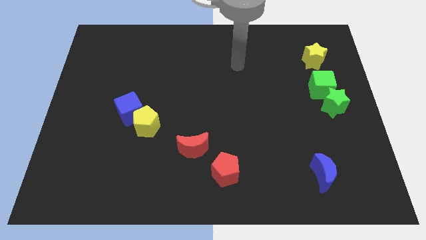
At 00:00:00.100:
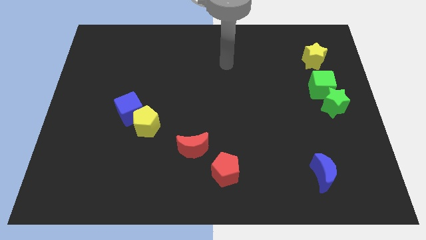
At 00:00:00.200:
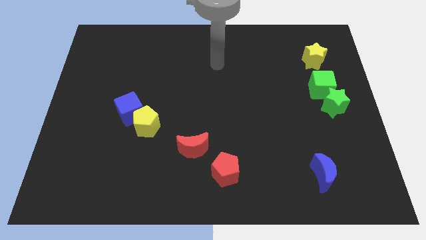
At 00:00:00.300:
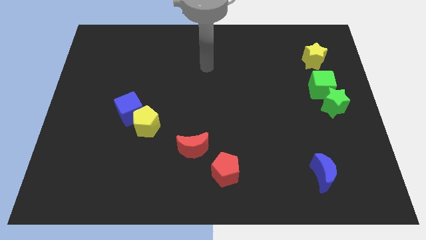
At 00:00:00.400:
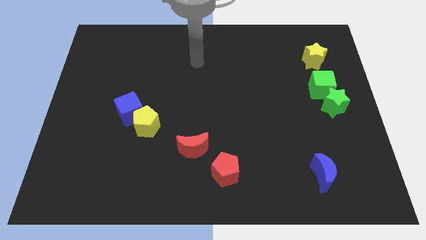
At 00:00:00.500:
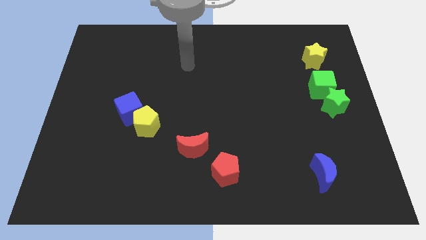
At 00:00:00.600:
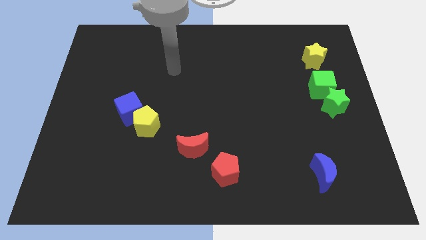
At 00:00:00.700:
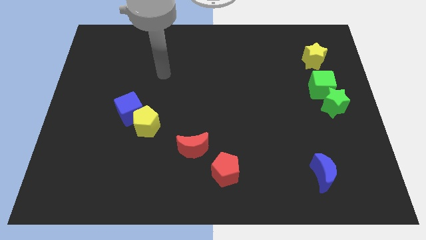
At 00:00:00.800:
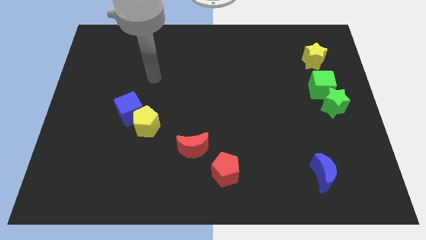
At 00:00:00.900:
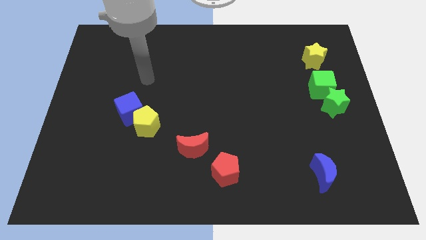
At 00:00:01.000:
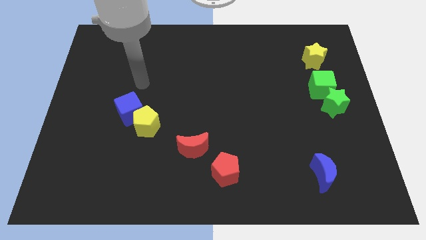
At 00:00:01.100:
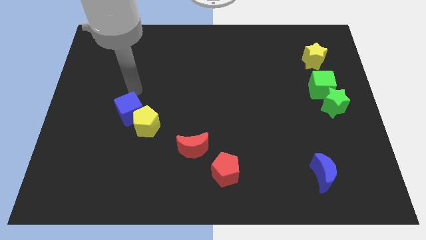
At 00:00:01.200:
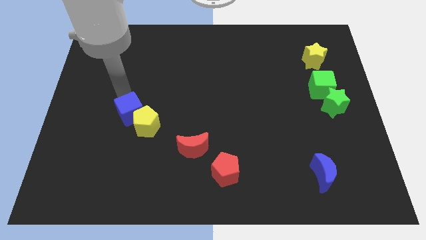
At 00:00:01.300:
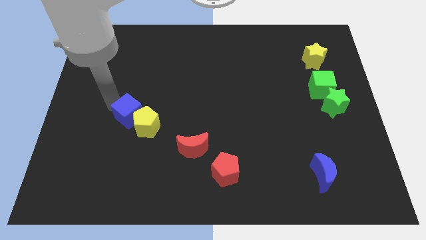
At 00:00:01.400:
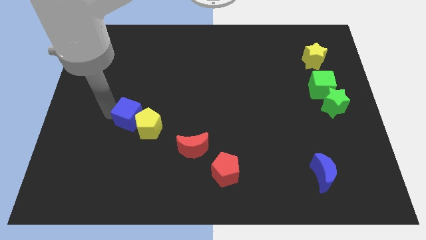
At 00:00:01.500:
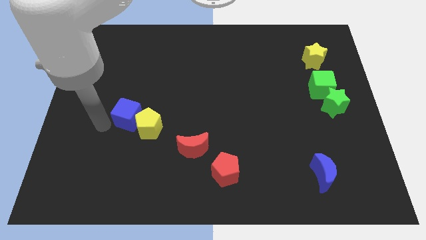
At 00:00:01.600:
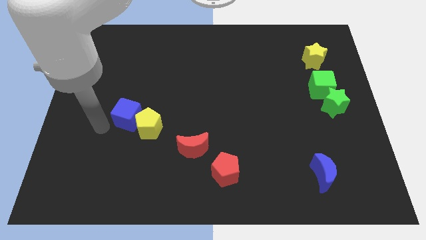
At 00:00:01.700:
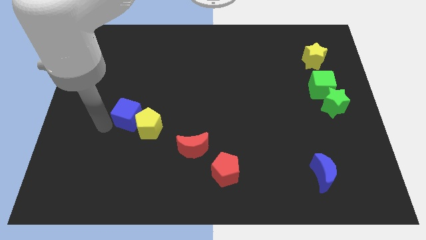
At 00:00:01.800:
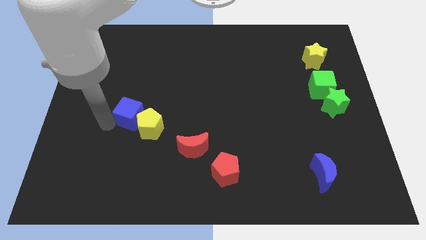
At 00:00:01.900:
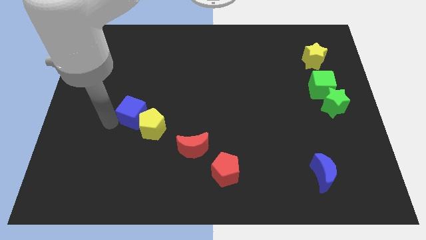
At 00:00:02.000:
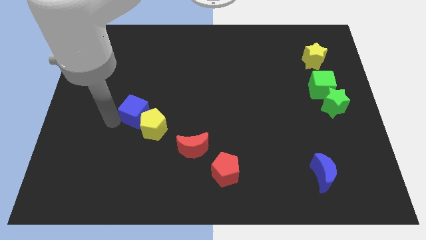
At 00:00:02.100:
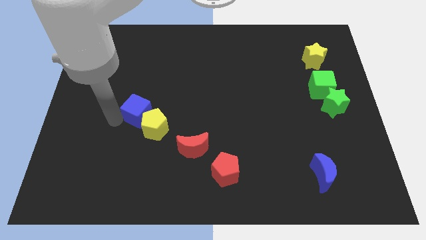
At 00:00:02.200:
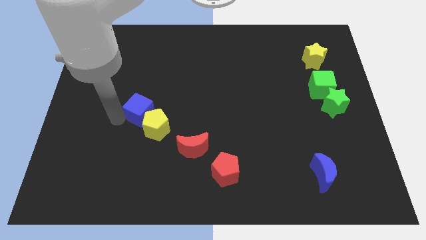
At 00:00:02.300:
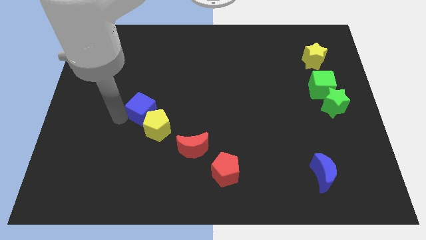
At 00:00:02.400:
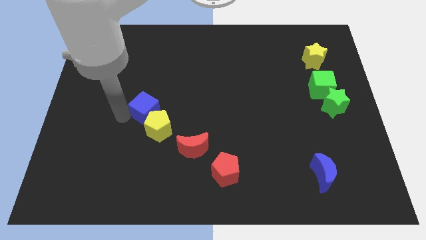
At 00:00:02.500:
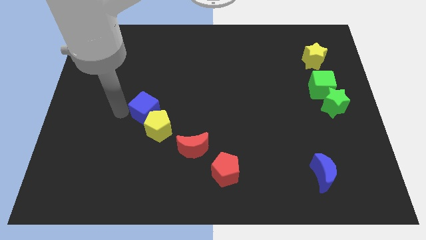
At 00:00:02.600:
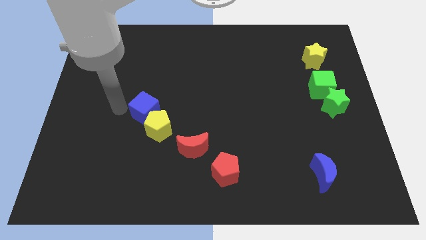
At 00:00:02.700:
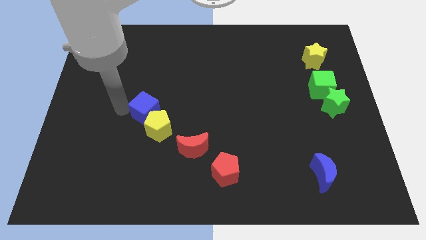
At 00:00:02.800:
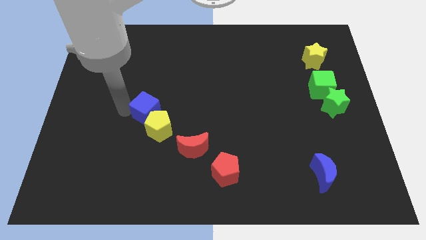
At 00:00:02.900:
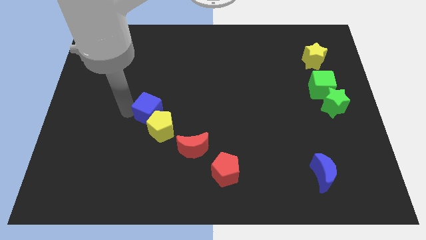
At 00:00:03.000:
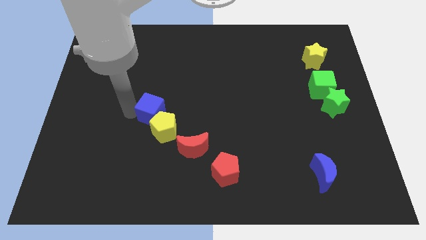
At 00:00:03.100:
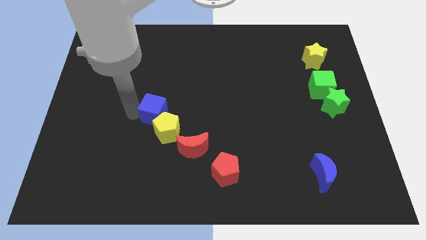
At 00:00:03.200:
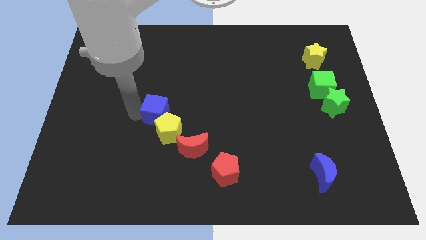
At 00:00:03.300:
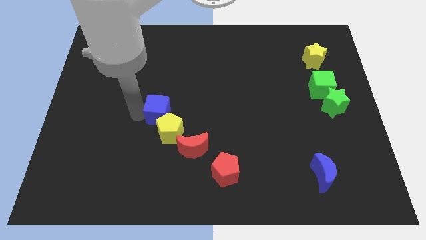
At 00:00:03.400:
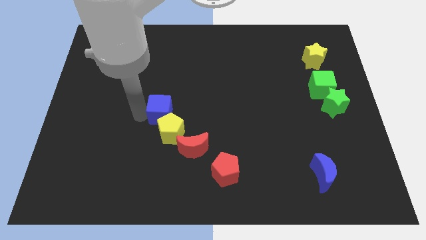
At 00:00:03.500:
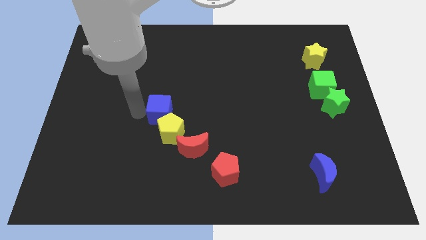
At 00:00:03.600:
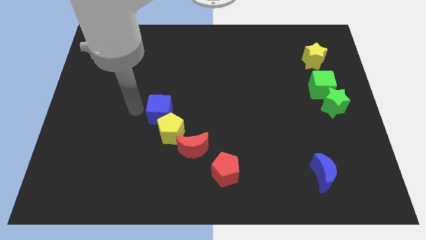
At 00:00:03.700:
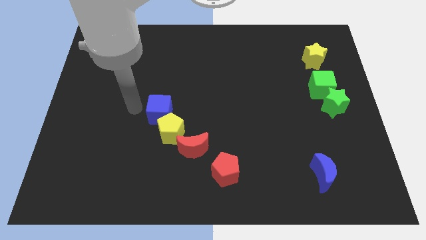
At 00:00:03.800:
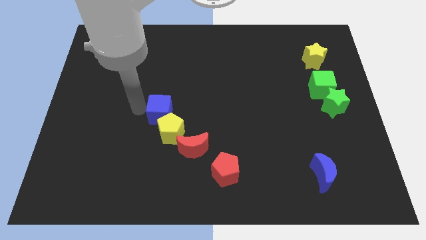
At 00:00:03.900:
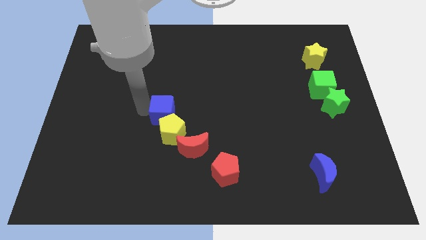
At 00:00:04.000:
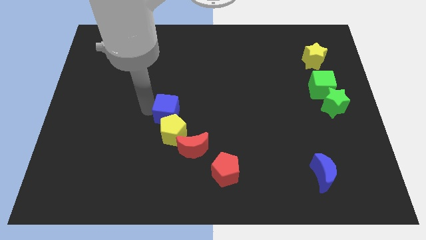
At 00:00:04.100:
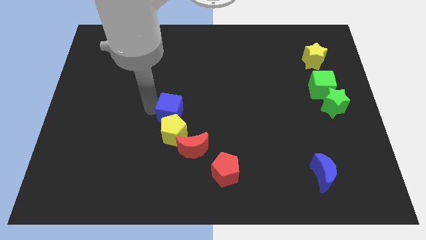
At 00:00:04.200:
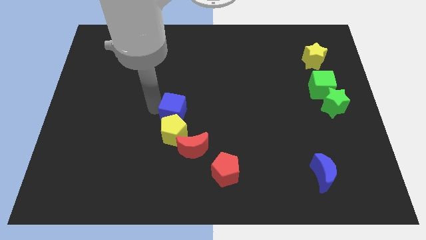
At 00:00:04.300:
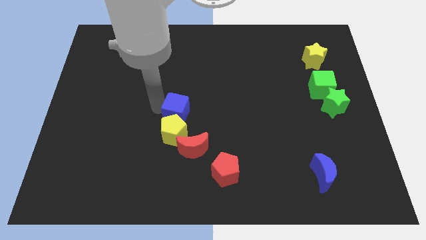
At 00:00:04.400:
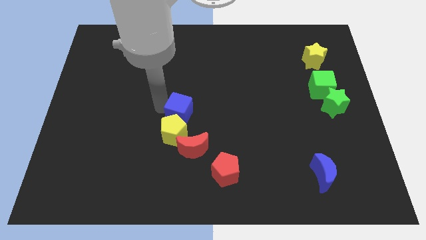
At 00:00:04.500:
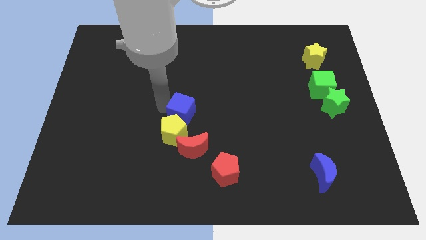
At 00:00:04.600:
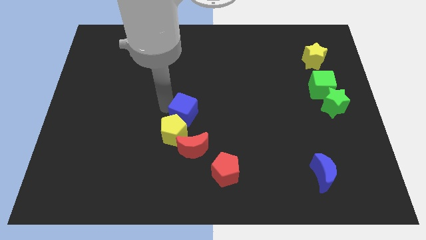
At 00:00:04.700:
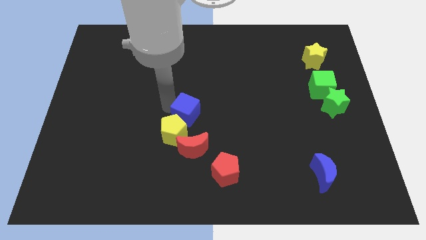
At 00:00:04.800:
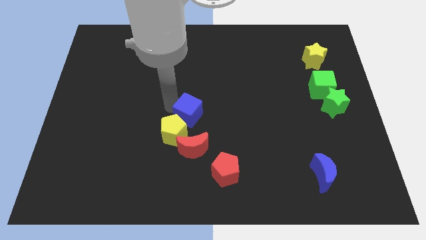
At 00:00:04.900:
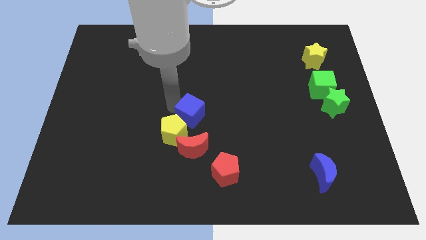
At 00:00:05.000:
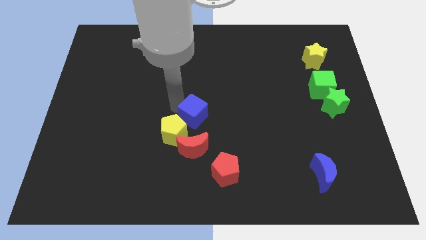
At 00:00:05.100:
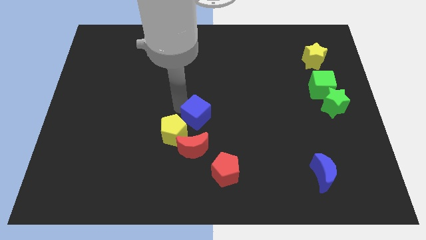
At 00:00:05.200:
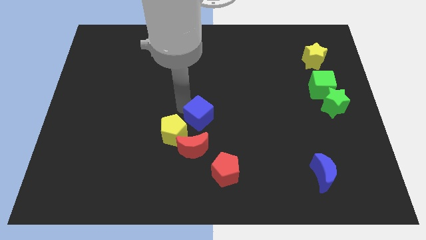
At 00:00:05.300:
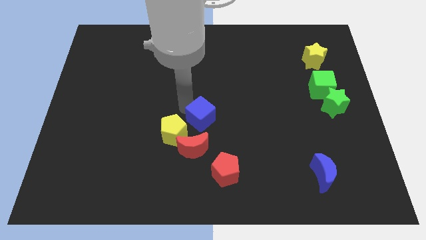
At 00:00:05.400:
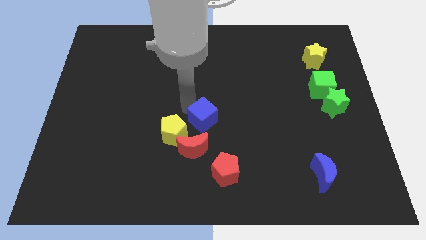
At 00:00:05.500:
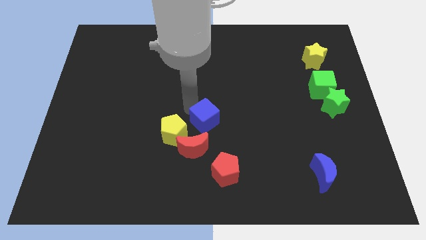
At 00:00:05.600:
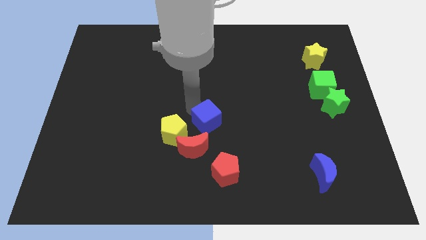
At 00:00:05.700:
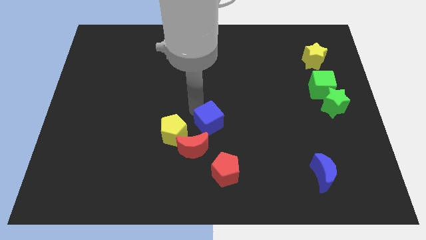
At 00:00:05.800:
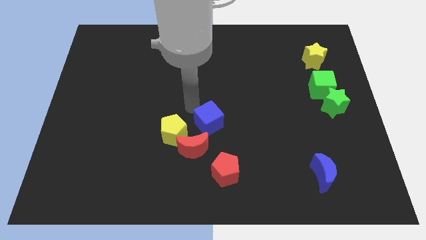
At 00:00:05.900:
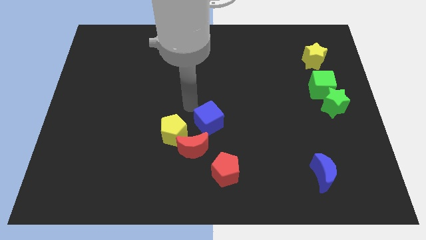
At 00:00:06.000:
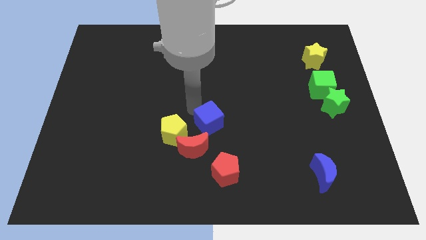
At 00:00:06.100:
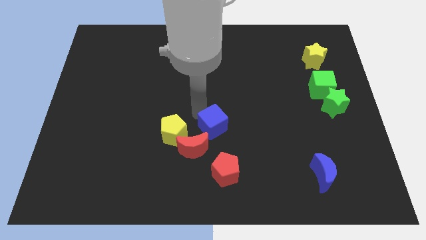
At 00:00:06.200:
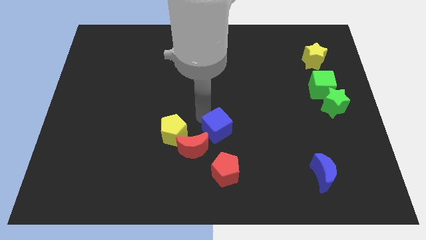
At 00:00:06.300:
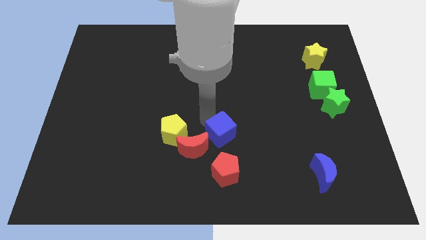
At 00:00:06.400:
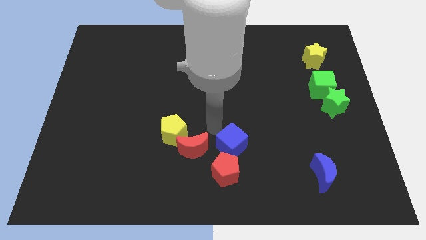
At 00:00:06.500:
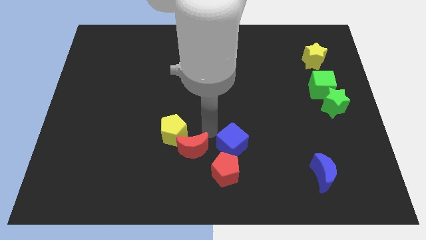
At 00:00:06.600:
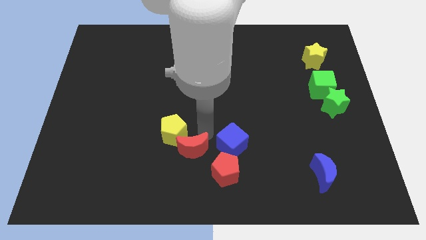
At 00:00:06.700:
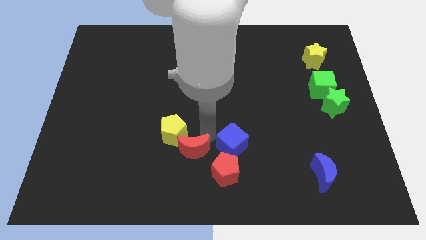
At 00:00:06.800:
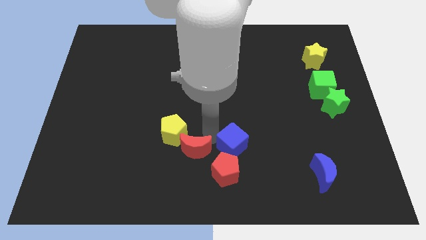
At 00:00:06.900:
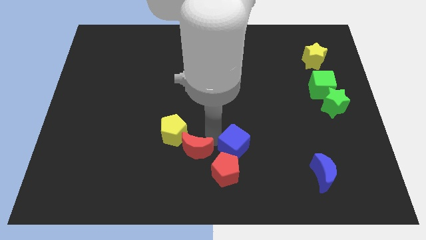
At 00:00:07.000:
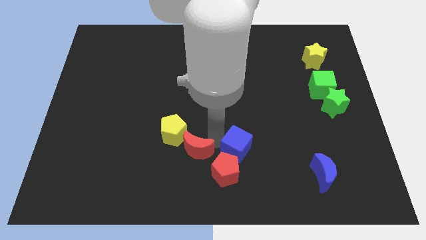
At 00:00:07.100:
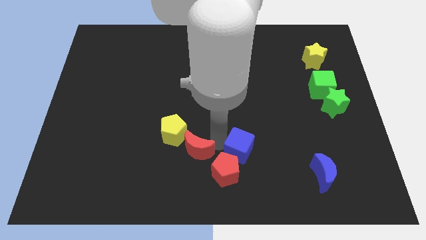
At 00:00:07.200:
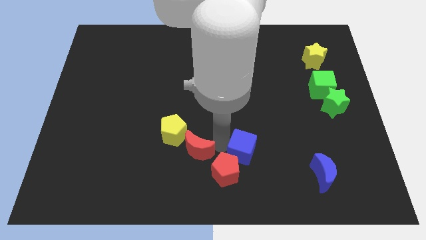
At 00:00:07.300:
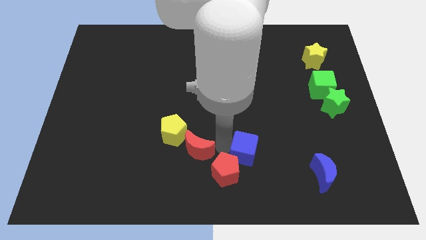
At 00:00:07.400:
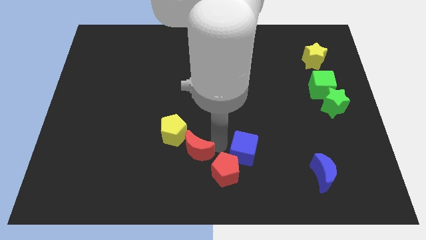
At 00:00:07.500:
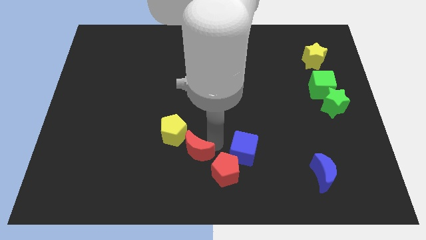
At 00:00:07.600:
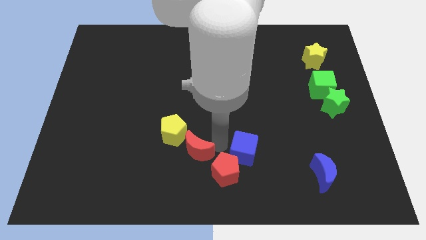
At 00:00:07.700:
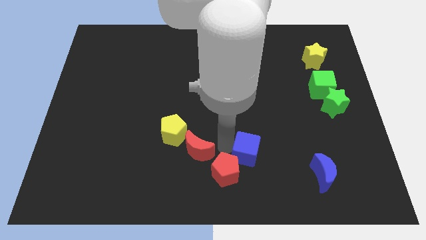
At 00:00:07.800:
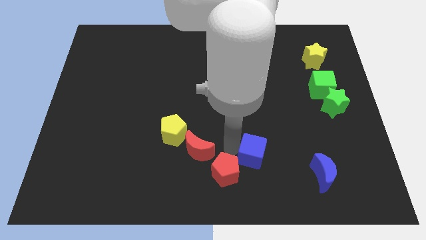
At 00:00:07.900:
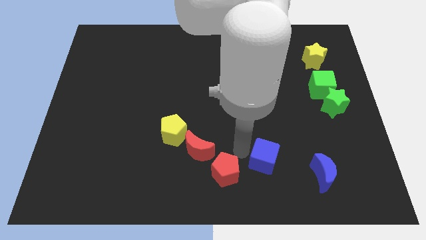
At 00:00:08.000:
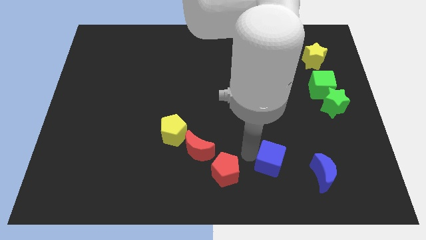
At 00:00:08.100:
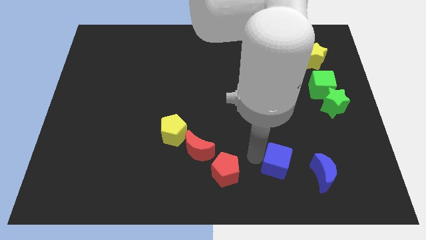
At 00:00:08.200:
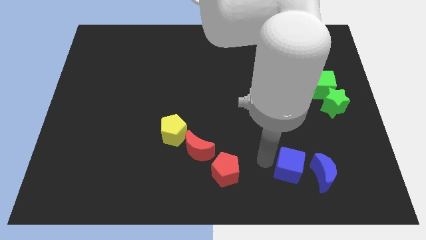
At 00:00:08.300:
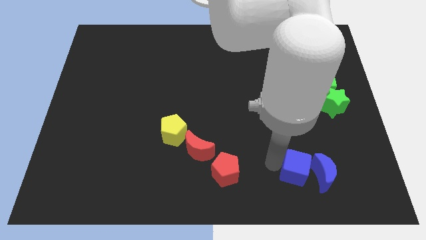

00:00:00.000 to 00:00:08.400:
slide the blue cube towards the blue moon
